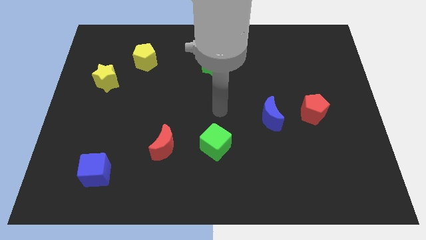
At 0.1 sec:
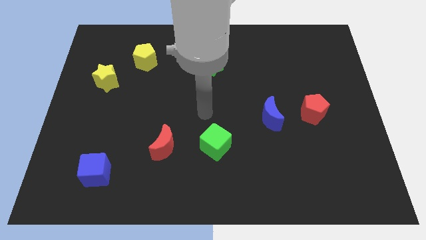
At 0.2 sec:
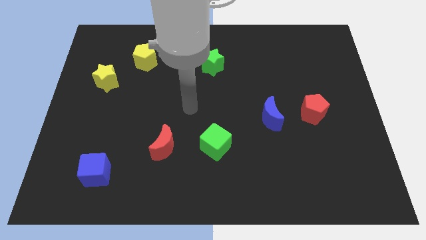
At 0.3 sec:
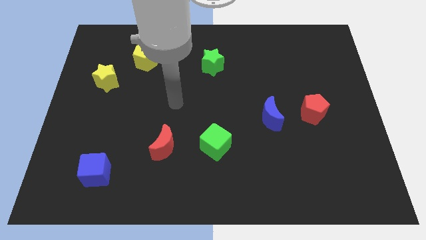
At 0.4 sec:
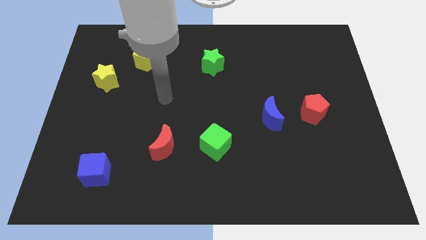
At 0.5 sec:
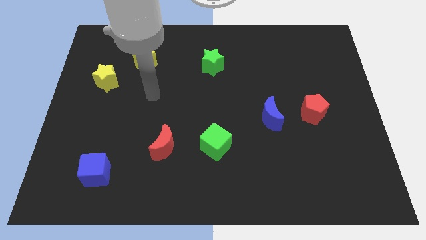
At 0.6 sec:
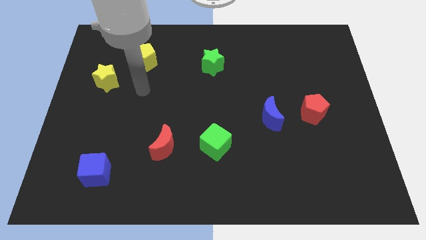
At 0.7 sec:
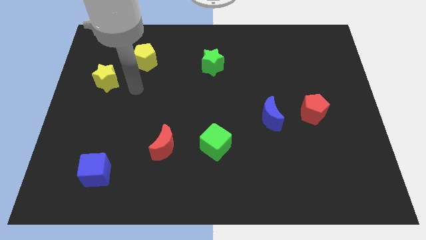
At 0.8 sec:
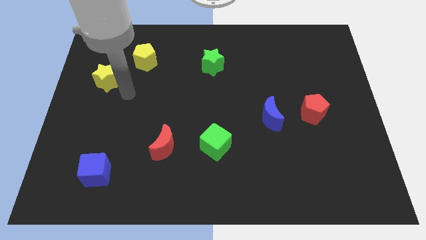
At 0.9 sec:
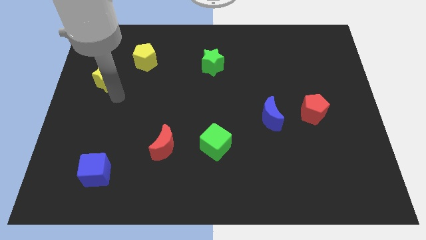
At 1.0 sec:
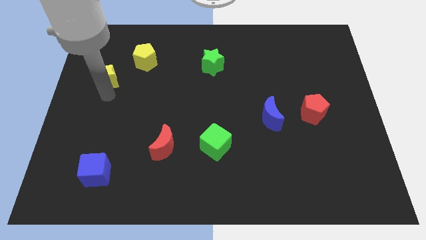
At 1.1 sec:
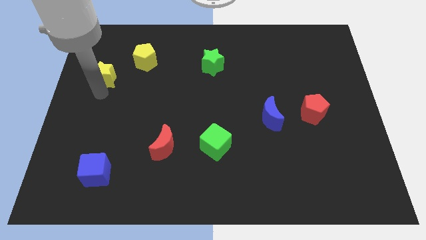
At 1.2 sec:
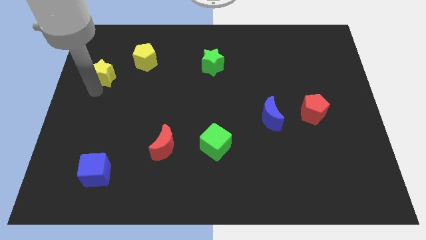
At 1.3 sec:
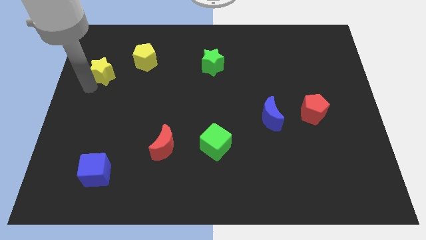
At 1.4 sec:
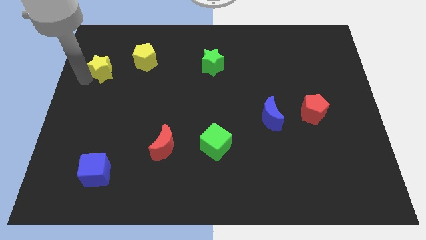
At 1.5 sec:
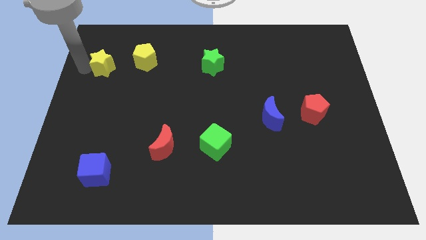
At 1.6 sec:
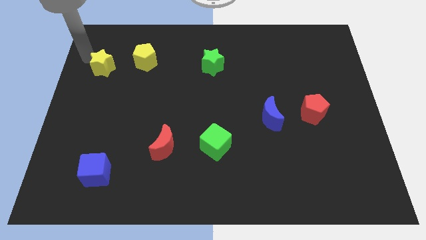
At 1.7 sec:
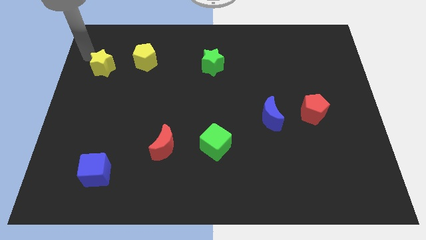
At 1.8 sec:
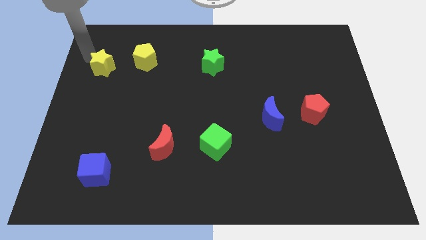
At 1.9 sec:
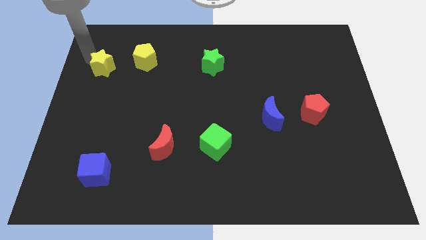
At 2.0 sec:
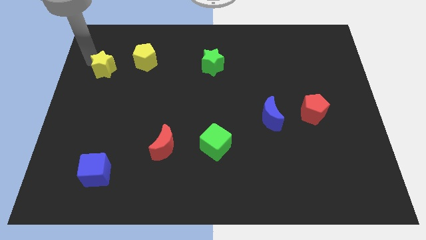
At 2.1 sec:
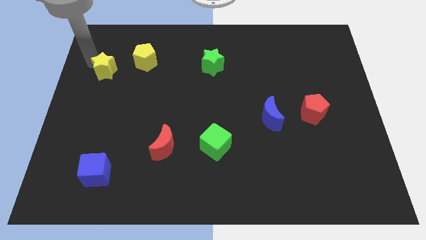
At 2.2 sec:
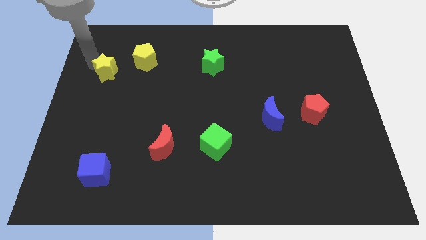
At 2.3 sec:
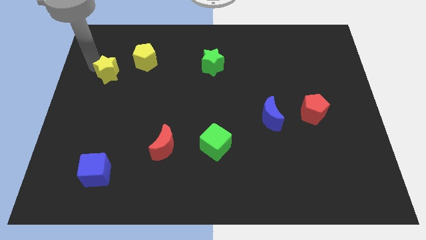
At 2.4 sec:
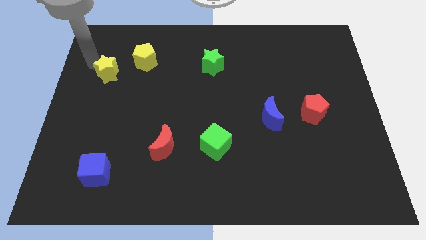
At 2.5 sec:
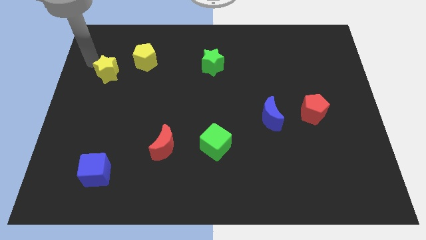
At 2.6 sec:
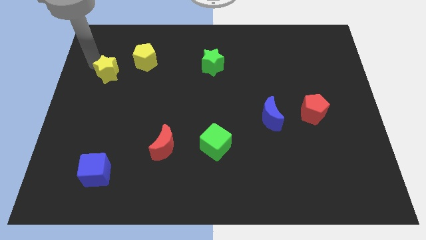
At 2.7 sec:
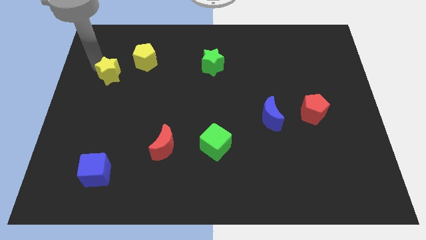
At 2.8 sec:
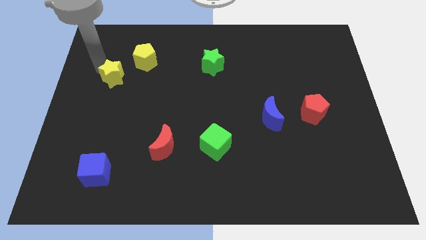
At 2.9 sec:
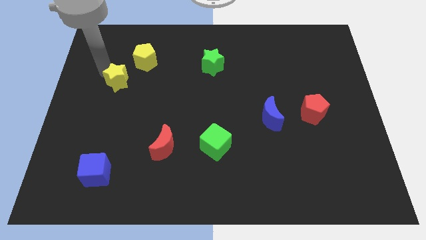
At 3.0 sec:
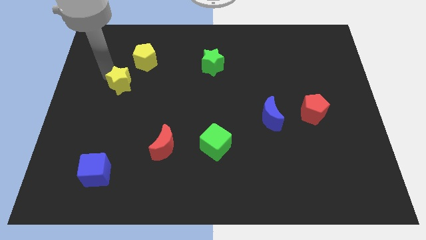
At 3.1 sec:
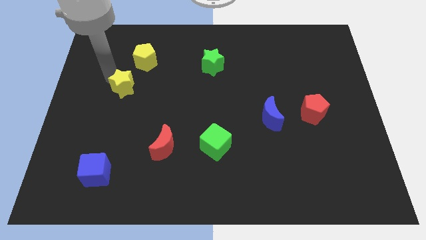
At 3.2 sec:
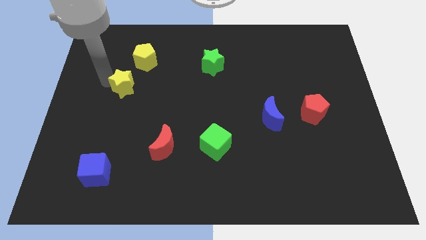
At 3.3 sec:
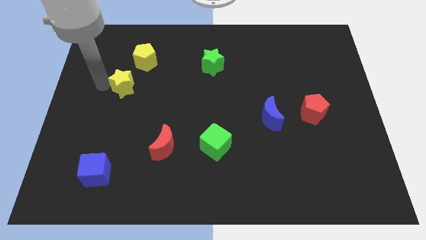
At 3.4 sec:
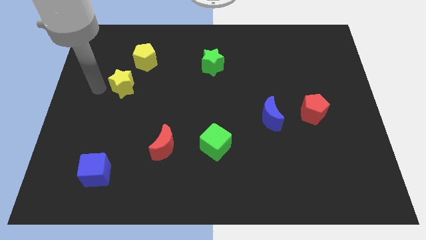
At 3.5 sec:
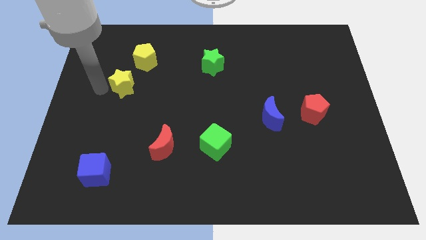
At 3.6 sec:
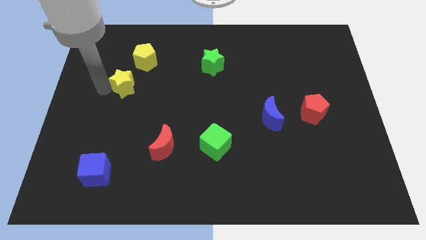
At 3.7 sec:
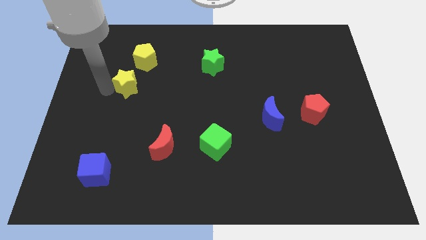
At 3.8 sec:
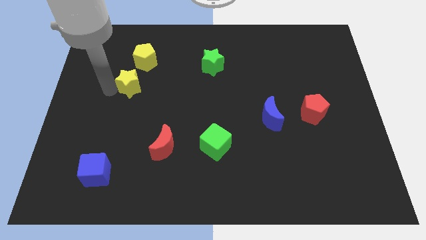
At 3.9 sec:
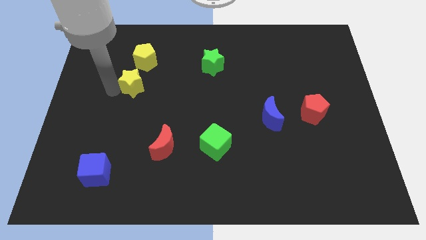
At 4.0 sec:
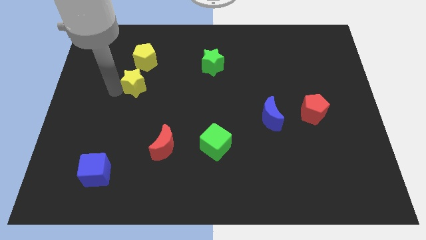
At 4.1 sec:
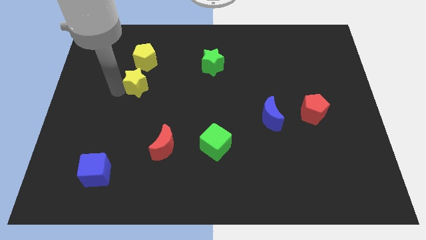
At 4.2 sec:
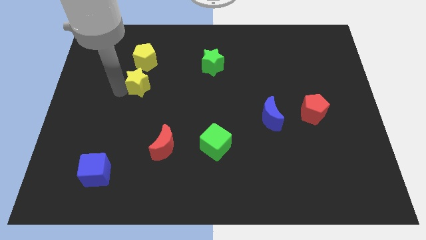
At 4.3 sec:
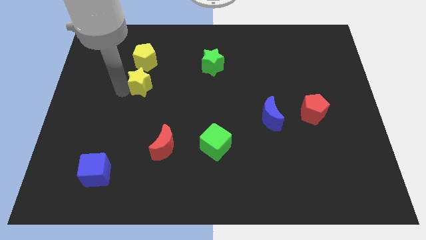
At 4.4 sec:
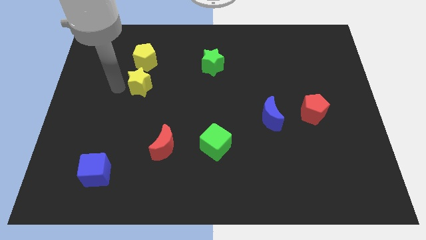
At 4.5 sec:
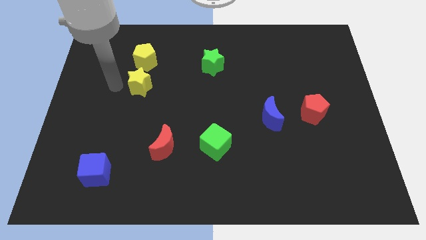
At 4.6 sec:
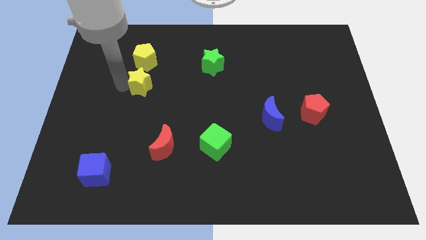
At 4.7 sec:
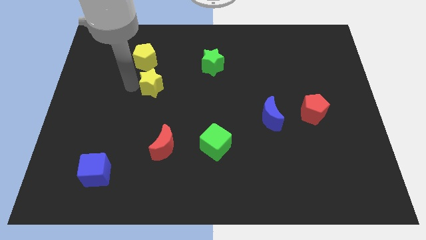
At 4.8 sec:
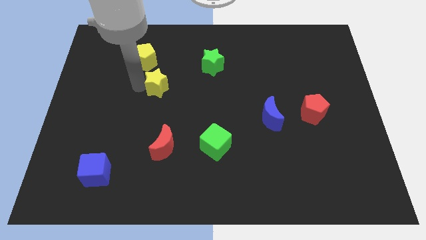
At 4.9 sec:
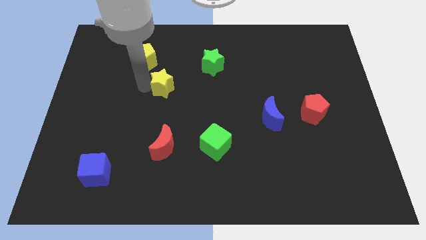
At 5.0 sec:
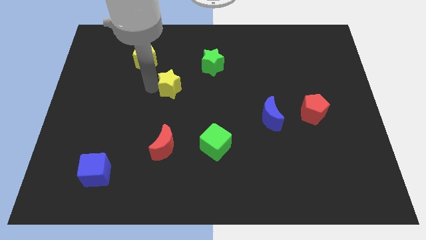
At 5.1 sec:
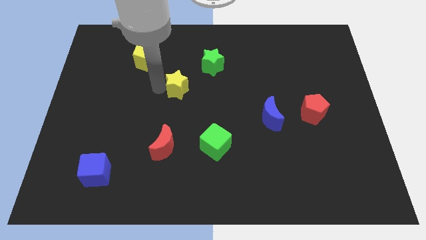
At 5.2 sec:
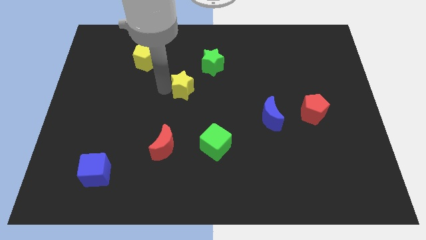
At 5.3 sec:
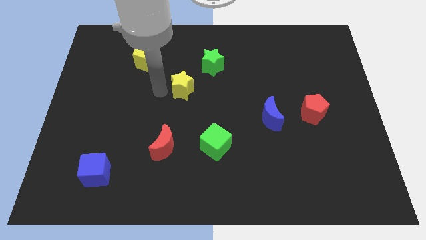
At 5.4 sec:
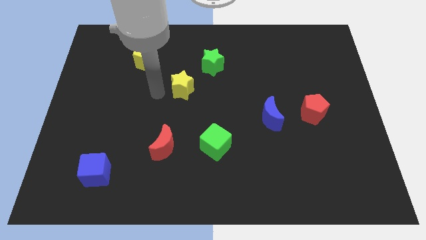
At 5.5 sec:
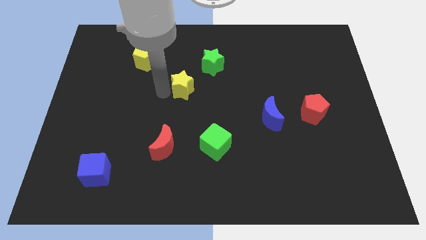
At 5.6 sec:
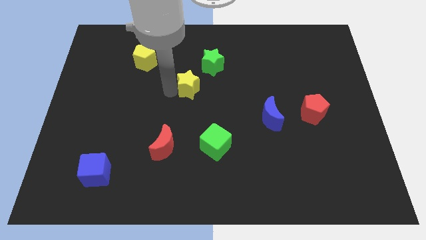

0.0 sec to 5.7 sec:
slide the yellow star to the right

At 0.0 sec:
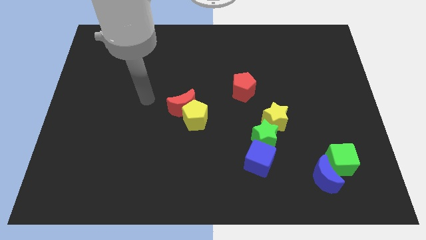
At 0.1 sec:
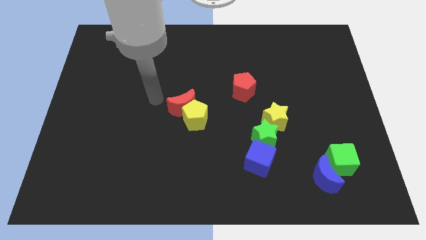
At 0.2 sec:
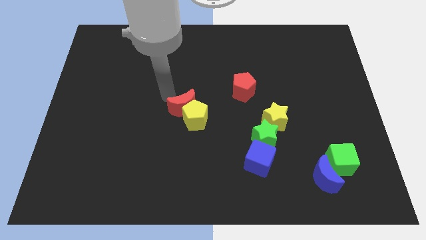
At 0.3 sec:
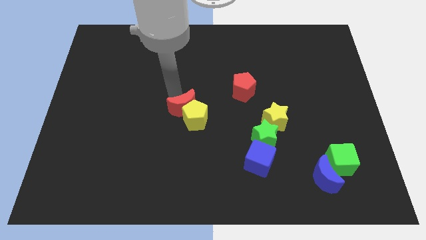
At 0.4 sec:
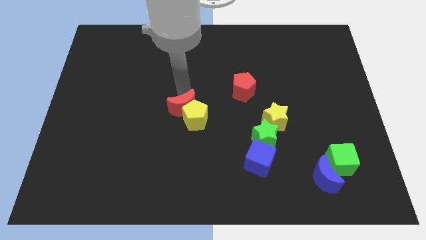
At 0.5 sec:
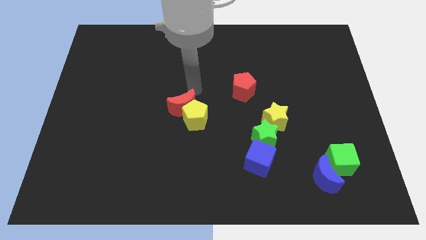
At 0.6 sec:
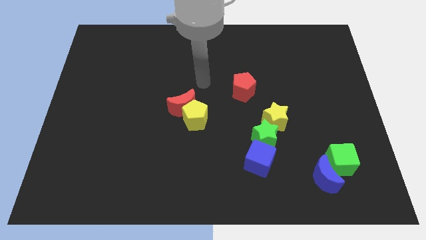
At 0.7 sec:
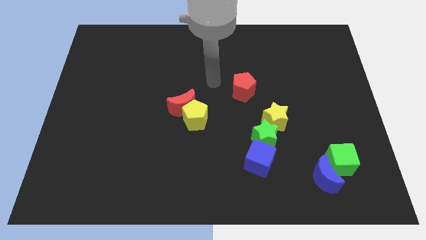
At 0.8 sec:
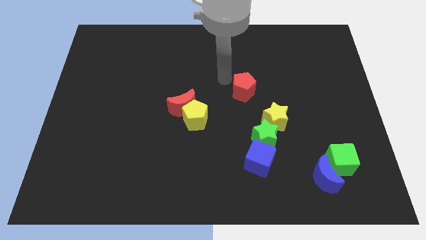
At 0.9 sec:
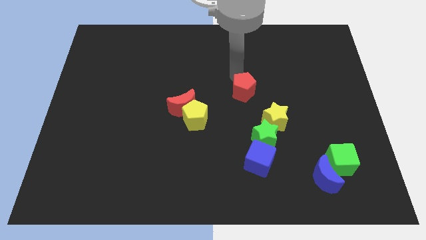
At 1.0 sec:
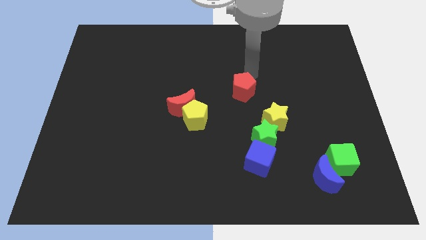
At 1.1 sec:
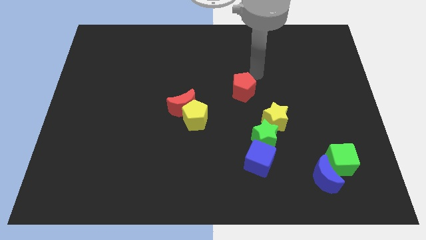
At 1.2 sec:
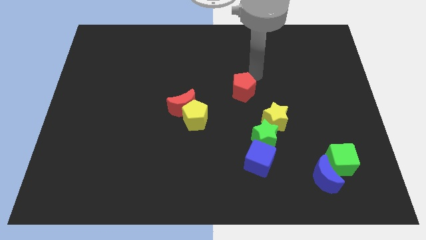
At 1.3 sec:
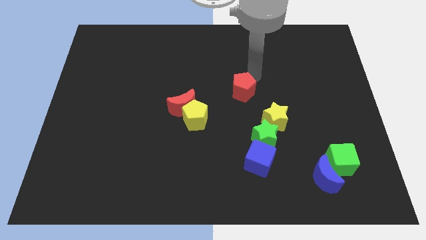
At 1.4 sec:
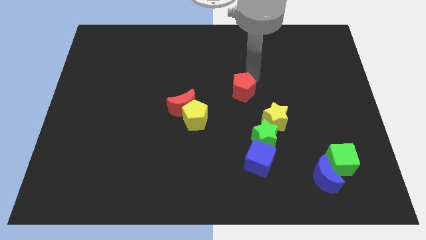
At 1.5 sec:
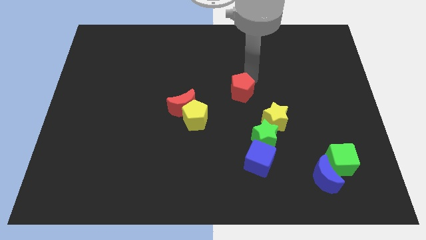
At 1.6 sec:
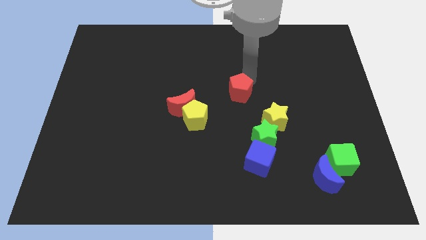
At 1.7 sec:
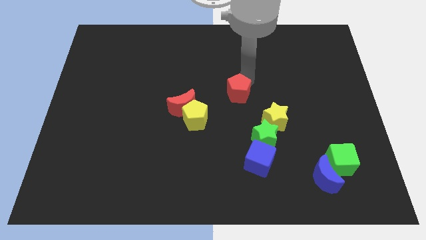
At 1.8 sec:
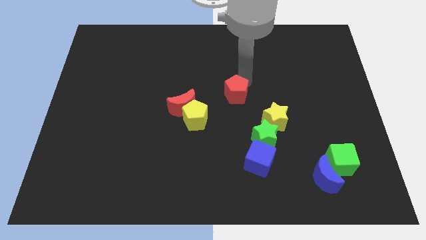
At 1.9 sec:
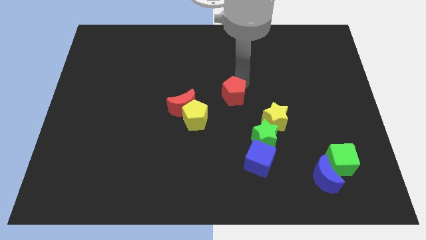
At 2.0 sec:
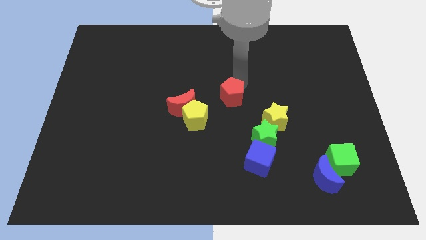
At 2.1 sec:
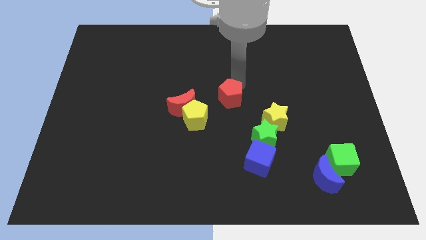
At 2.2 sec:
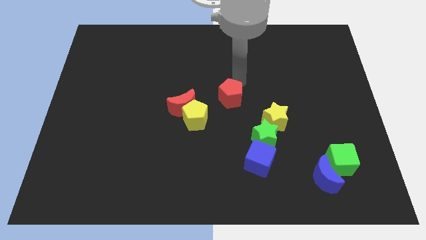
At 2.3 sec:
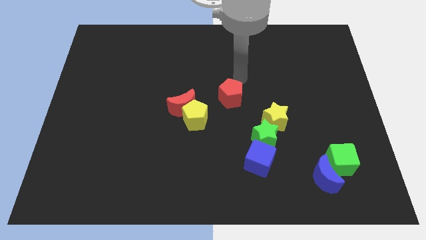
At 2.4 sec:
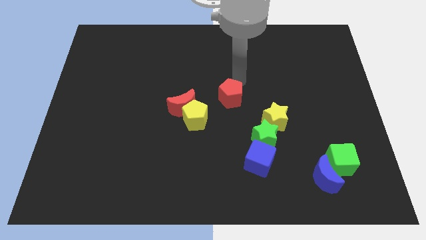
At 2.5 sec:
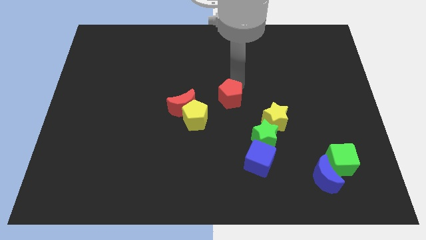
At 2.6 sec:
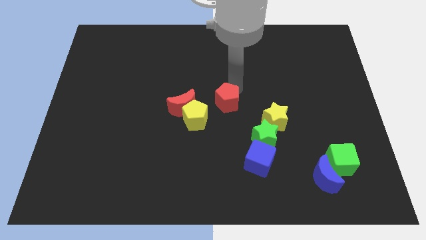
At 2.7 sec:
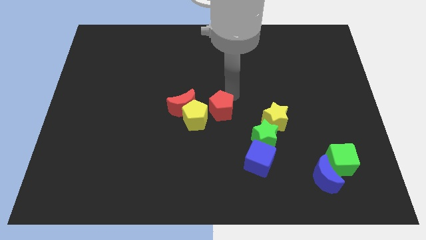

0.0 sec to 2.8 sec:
slightly move the red pentagon down and then to the left
